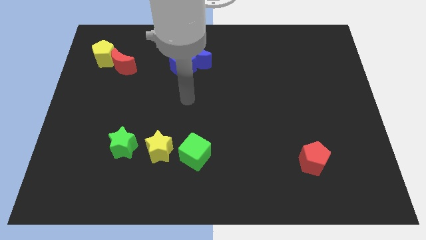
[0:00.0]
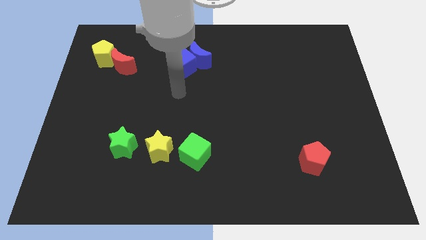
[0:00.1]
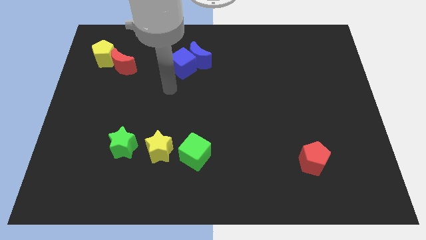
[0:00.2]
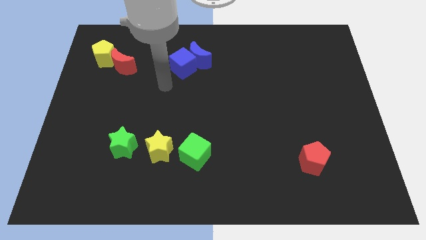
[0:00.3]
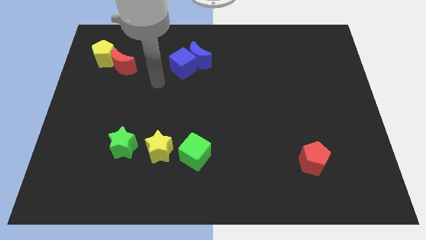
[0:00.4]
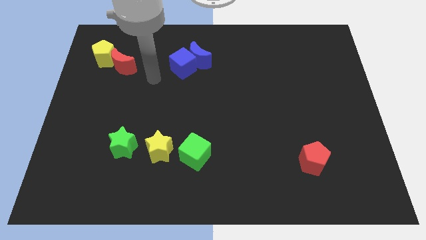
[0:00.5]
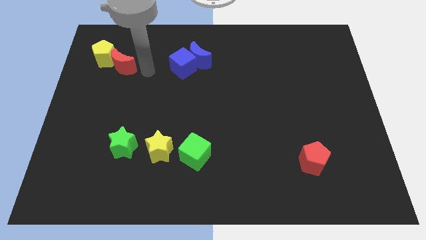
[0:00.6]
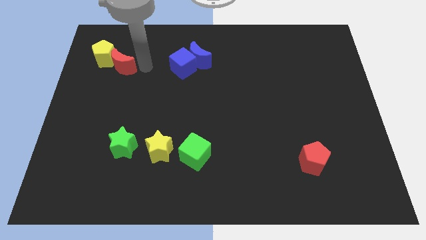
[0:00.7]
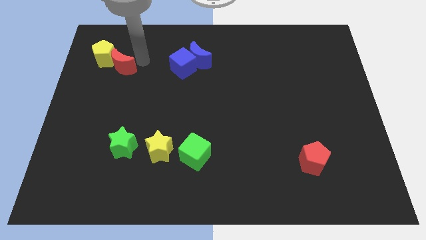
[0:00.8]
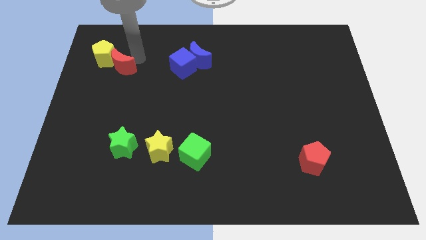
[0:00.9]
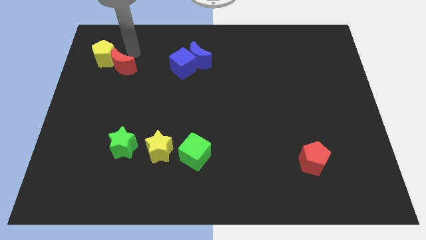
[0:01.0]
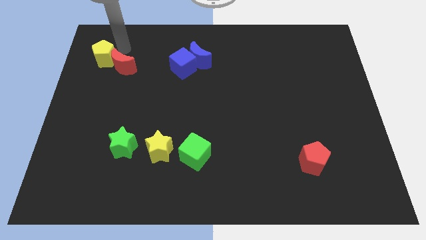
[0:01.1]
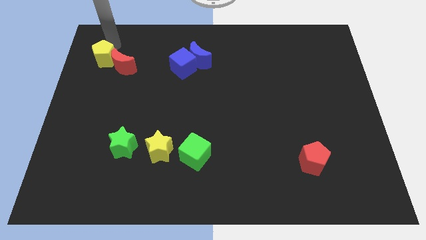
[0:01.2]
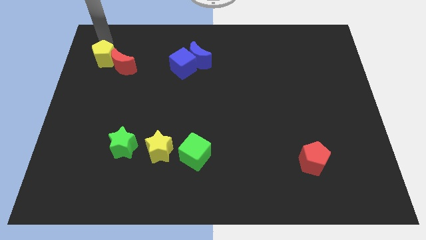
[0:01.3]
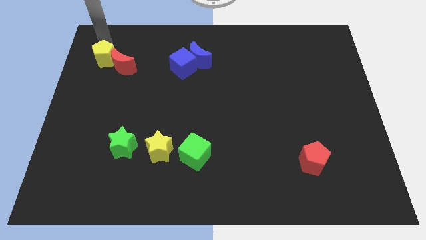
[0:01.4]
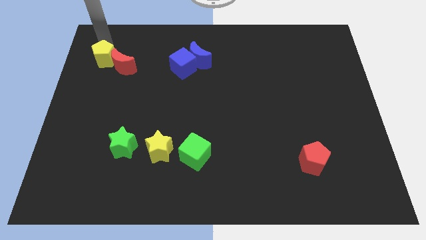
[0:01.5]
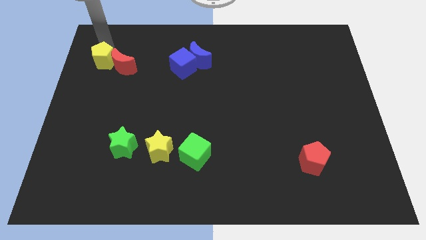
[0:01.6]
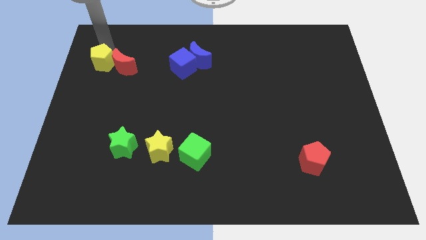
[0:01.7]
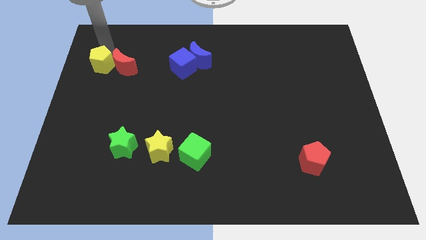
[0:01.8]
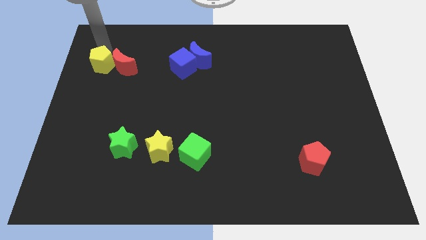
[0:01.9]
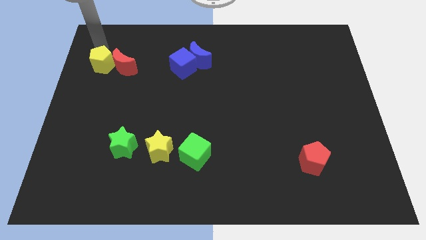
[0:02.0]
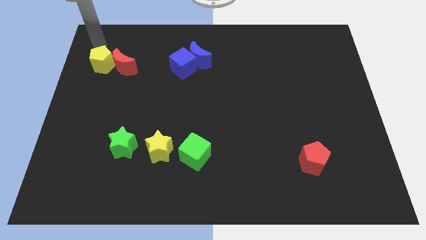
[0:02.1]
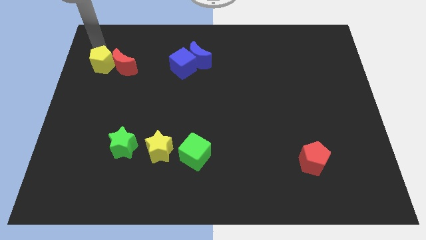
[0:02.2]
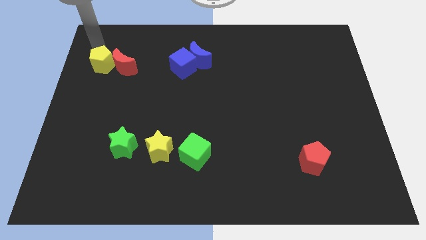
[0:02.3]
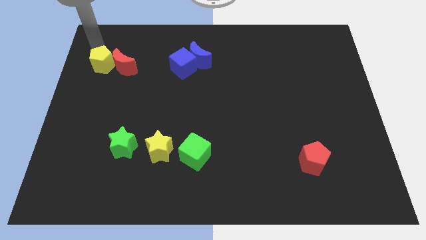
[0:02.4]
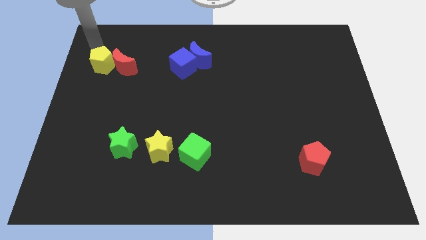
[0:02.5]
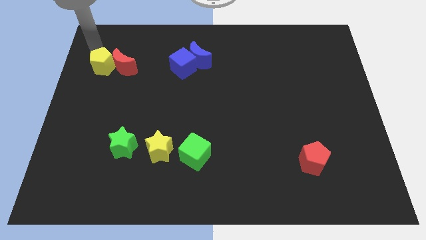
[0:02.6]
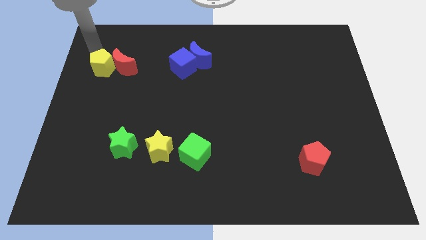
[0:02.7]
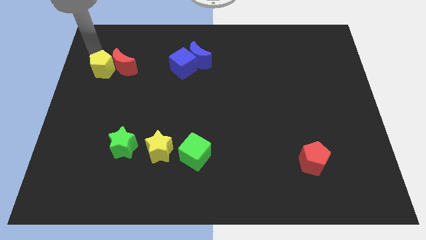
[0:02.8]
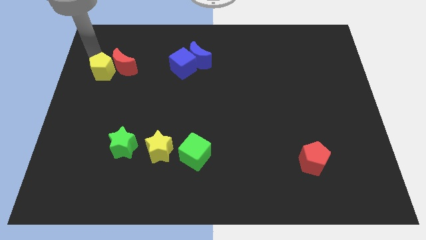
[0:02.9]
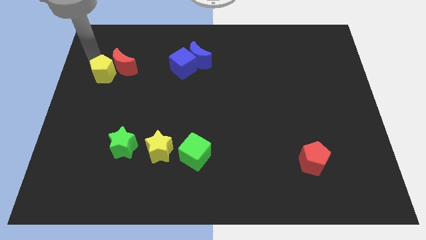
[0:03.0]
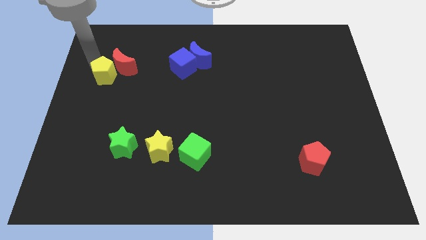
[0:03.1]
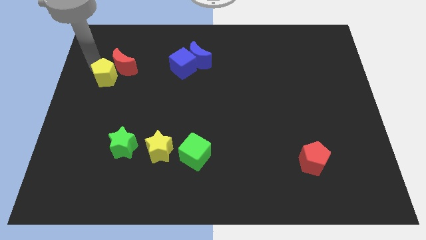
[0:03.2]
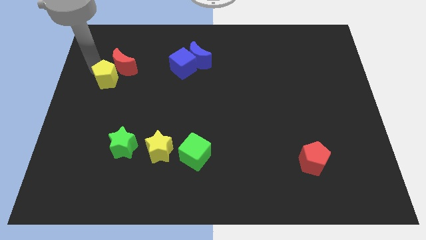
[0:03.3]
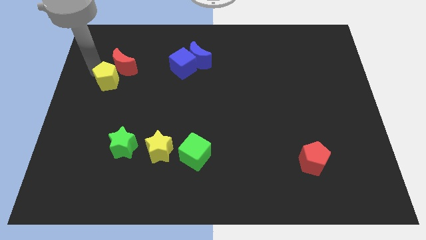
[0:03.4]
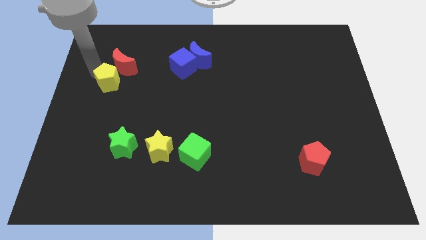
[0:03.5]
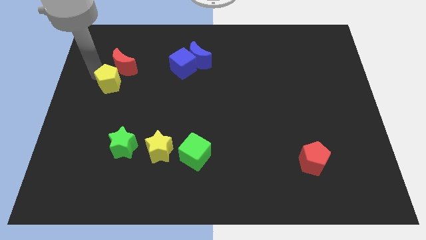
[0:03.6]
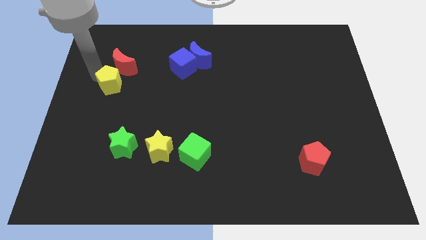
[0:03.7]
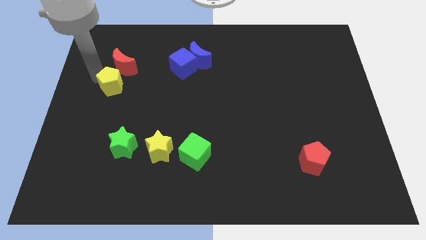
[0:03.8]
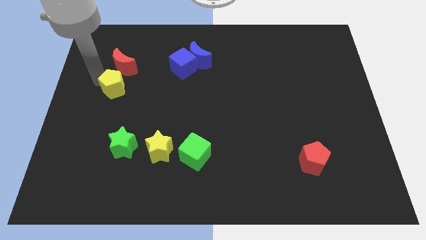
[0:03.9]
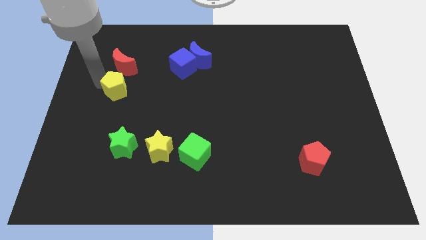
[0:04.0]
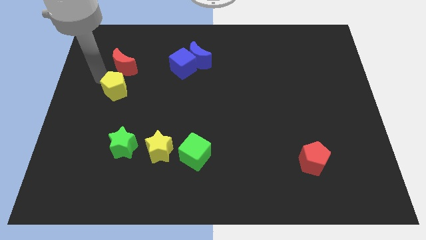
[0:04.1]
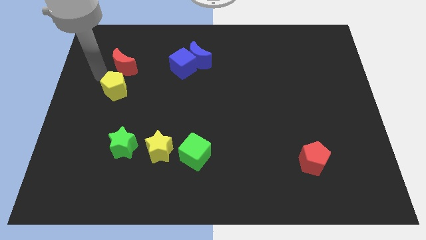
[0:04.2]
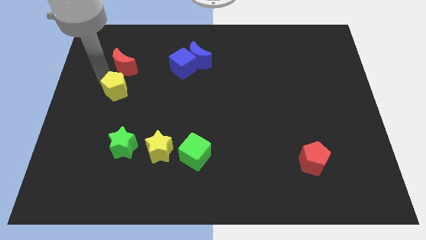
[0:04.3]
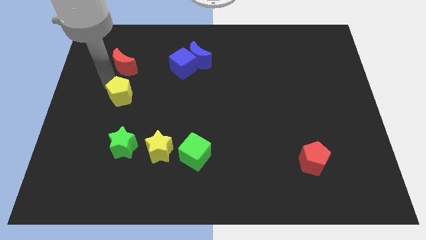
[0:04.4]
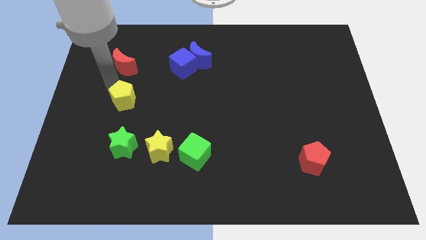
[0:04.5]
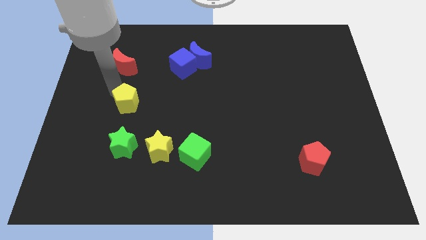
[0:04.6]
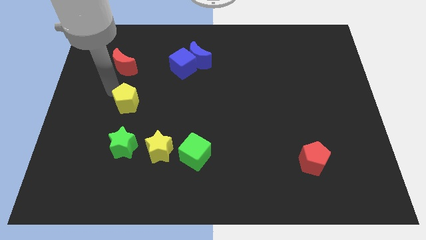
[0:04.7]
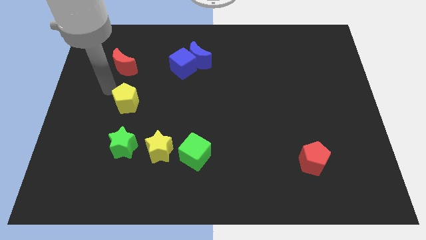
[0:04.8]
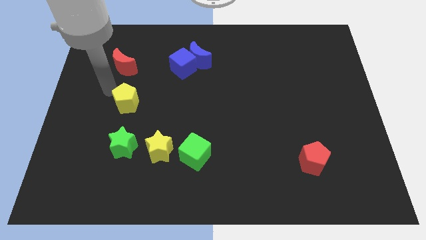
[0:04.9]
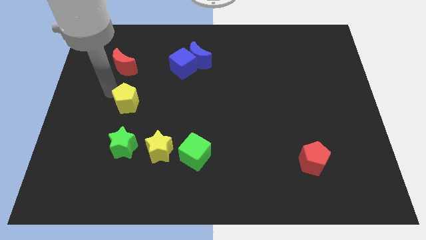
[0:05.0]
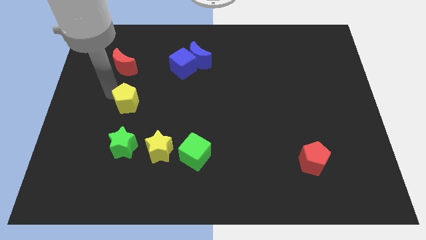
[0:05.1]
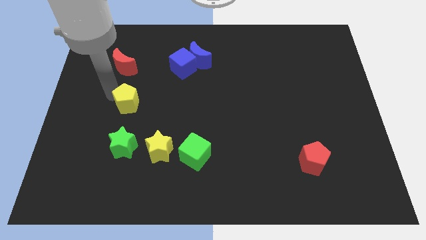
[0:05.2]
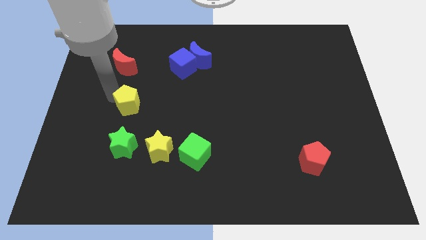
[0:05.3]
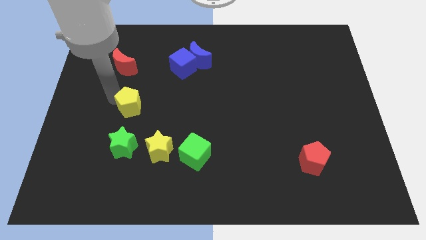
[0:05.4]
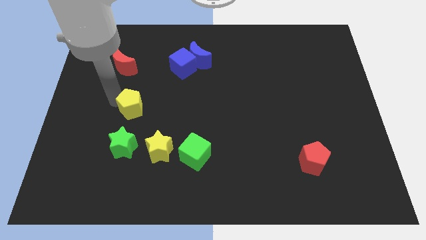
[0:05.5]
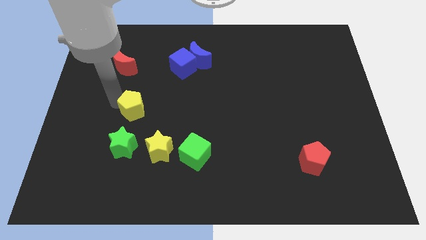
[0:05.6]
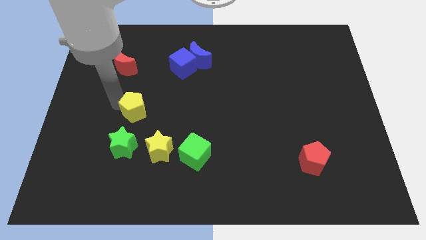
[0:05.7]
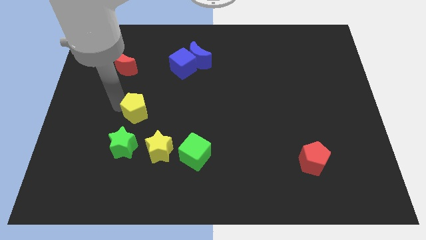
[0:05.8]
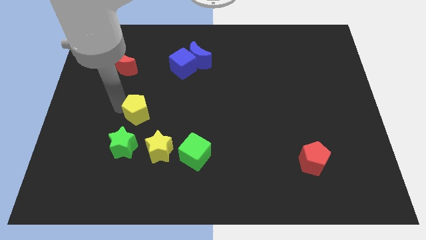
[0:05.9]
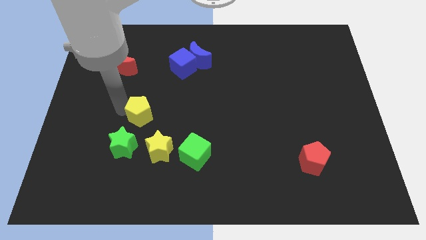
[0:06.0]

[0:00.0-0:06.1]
slide the yellow pentagon diagonally down and to the right

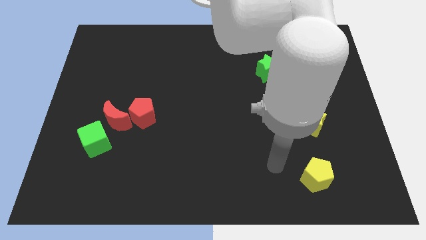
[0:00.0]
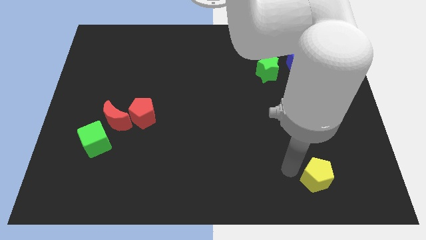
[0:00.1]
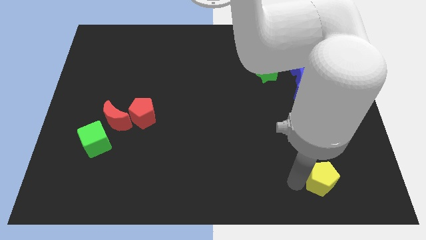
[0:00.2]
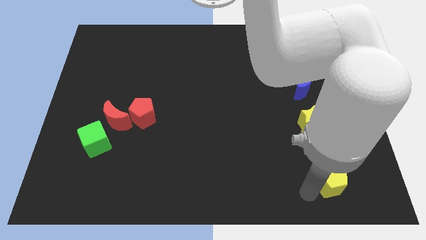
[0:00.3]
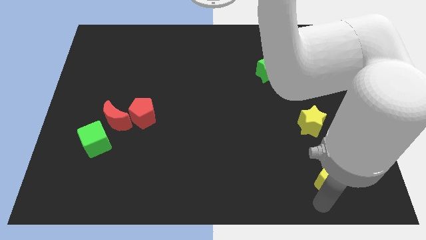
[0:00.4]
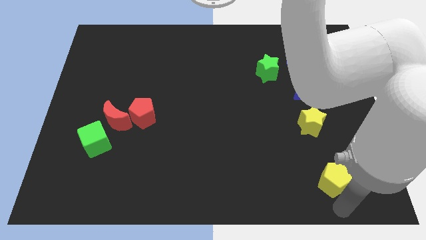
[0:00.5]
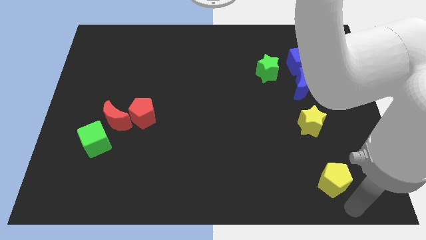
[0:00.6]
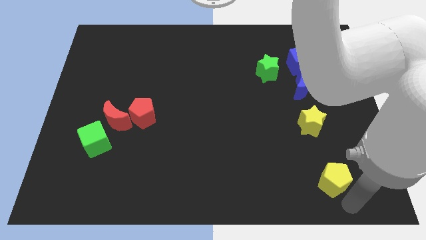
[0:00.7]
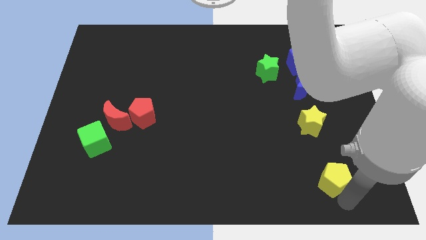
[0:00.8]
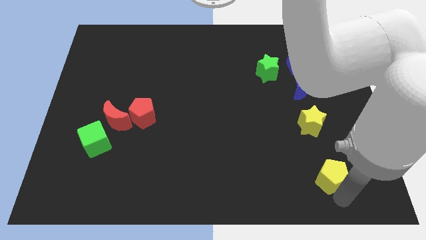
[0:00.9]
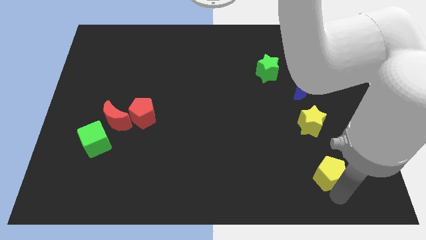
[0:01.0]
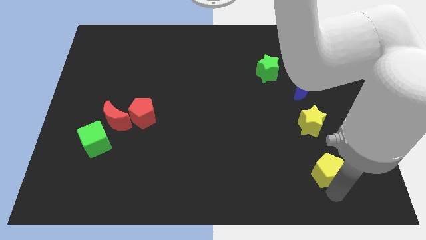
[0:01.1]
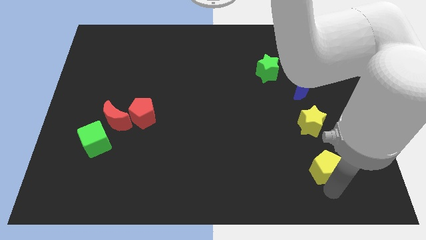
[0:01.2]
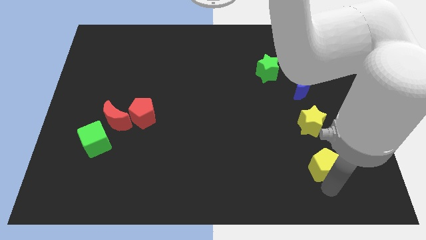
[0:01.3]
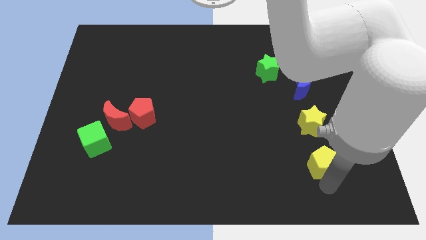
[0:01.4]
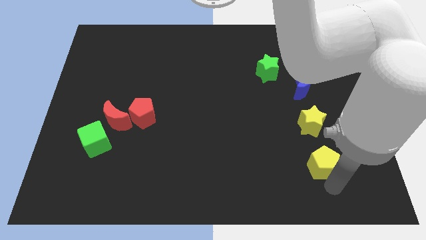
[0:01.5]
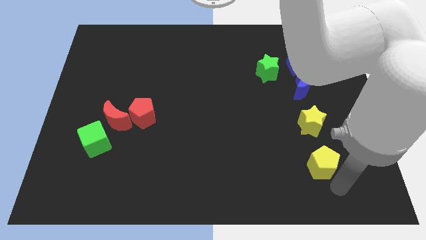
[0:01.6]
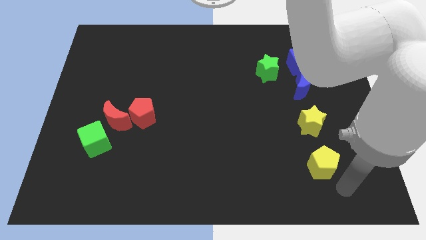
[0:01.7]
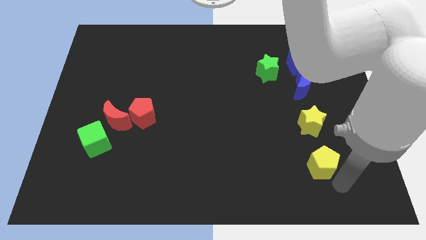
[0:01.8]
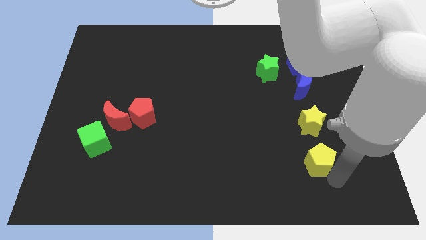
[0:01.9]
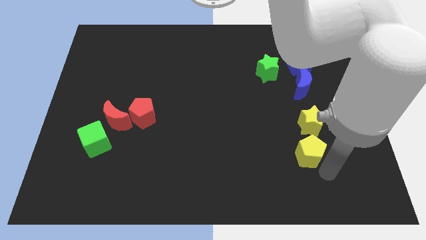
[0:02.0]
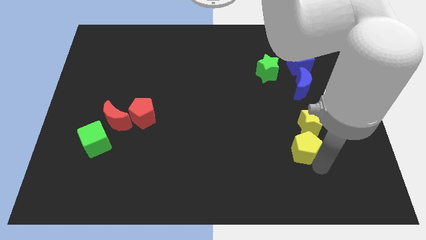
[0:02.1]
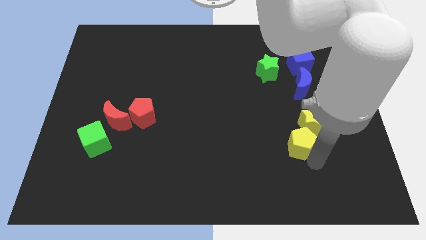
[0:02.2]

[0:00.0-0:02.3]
slide the yellow pentagon upwards slightly
